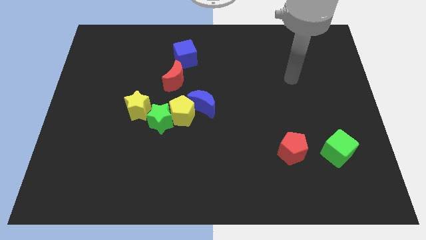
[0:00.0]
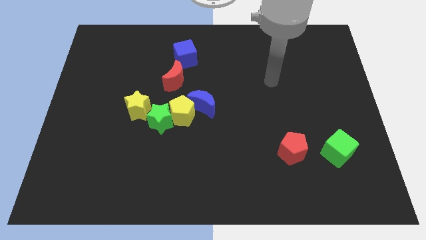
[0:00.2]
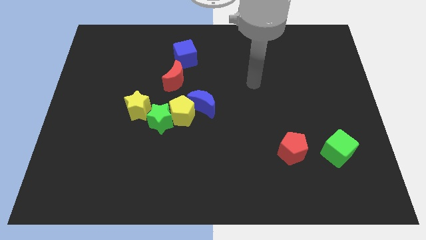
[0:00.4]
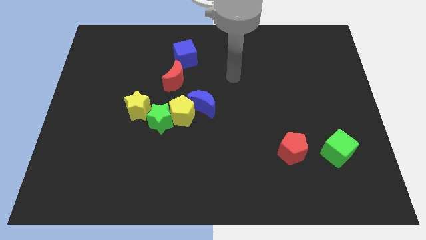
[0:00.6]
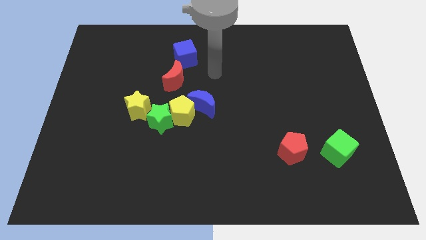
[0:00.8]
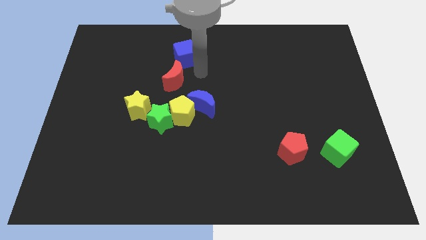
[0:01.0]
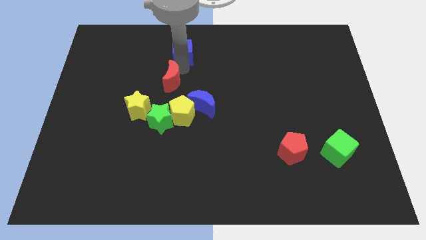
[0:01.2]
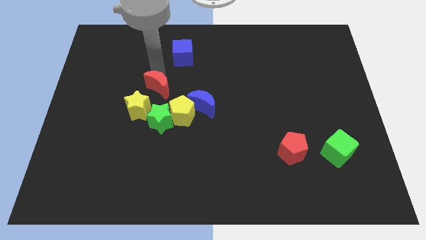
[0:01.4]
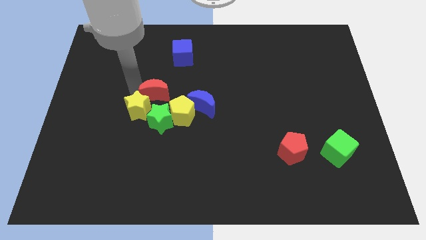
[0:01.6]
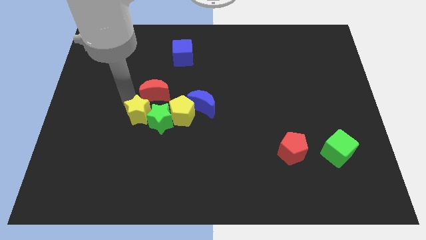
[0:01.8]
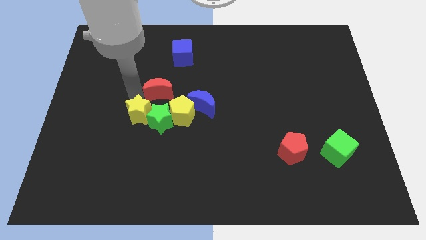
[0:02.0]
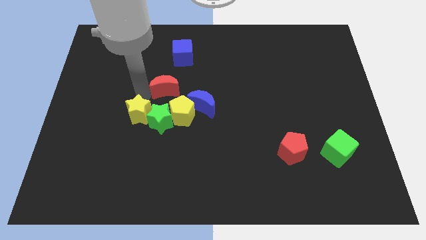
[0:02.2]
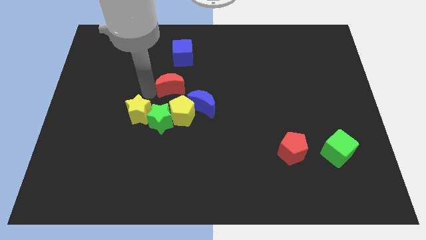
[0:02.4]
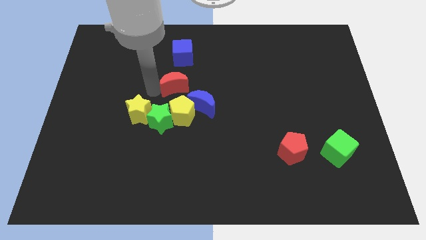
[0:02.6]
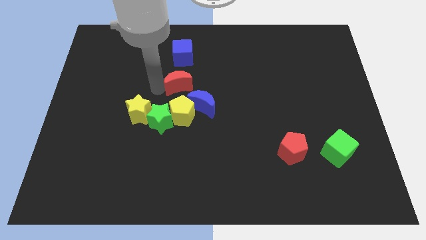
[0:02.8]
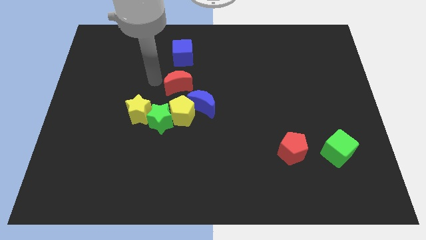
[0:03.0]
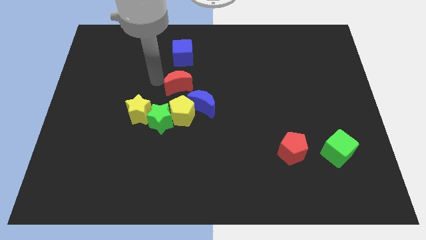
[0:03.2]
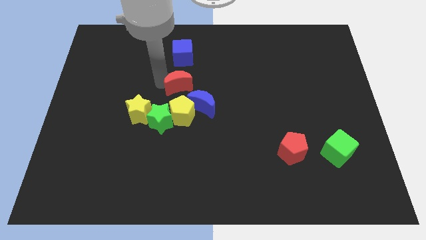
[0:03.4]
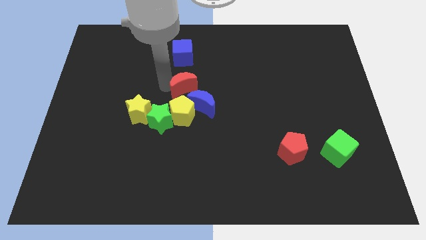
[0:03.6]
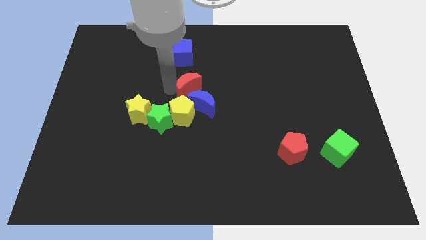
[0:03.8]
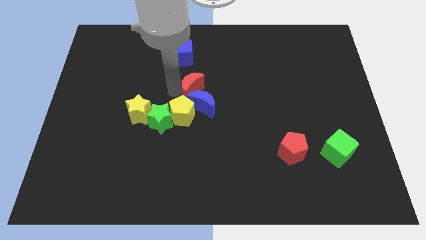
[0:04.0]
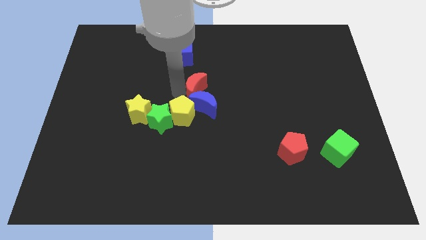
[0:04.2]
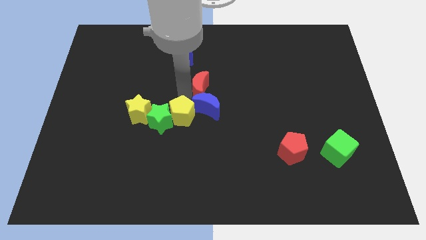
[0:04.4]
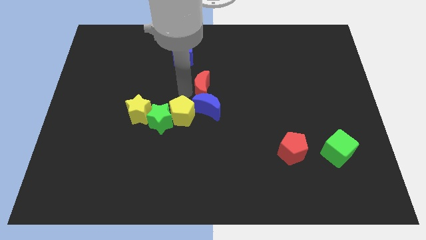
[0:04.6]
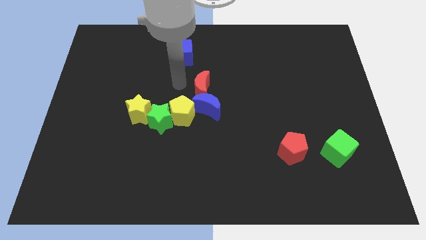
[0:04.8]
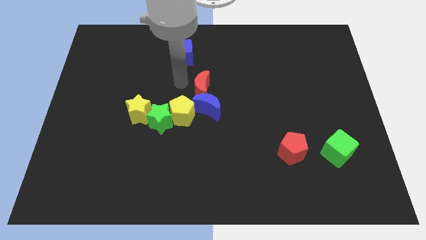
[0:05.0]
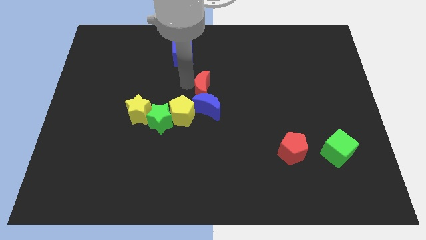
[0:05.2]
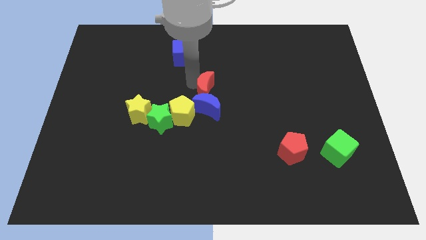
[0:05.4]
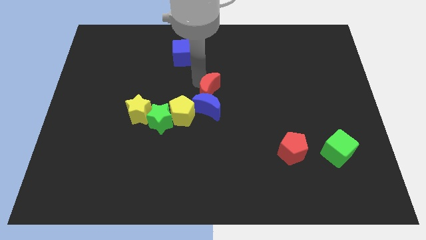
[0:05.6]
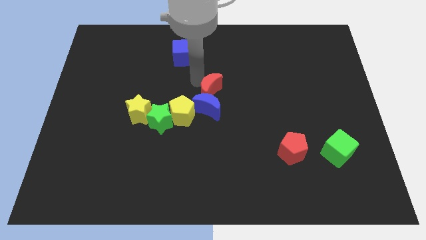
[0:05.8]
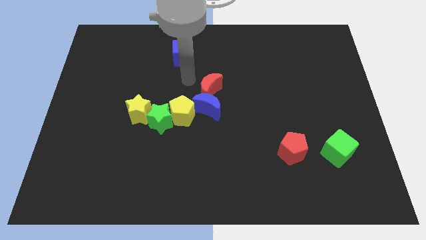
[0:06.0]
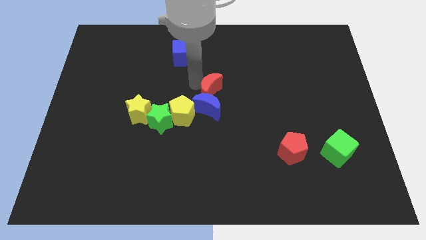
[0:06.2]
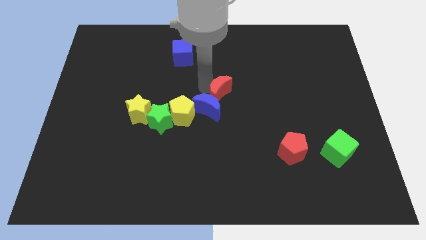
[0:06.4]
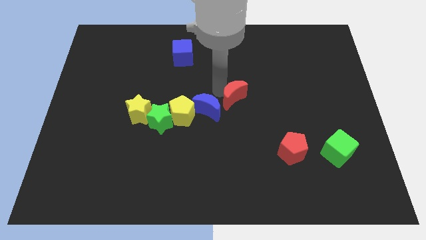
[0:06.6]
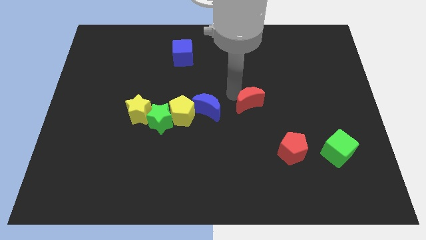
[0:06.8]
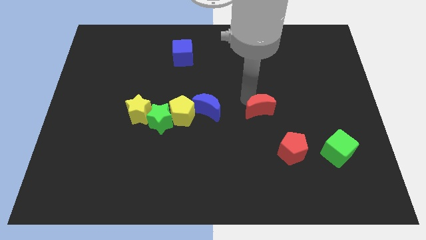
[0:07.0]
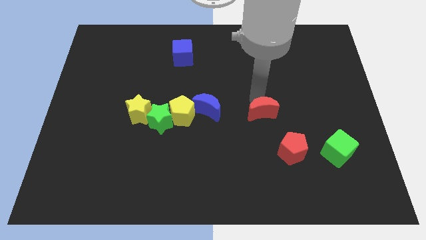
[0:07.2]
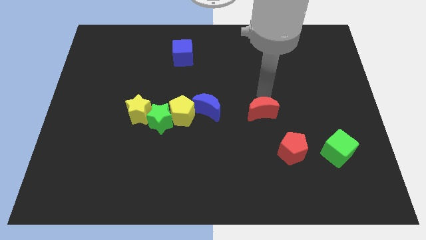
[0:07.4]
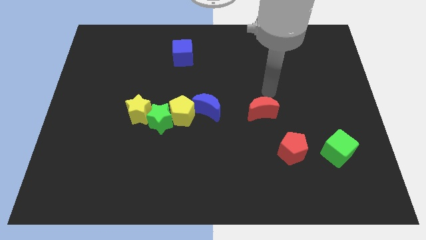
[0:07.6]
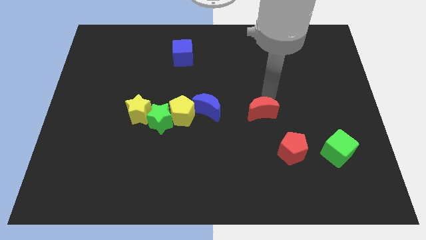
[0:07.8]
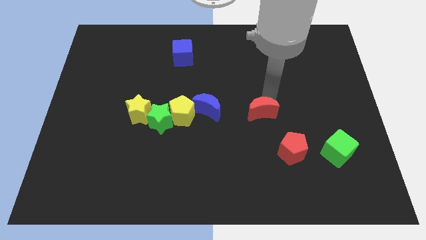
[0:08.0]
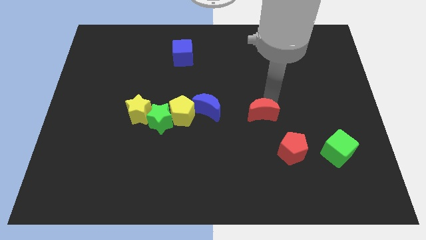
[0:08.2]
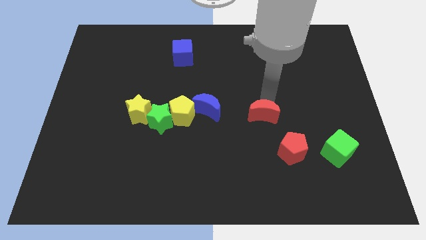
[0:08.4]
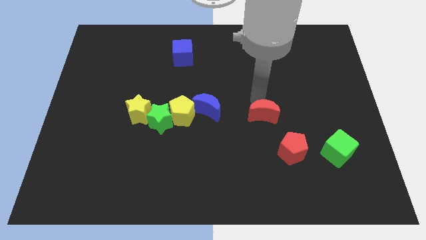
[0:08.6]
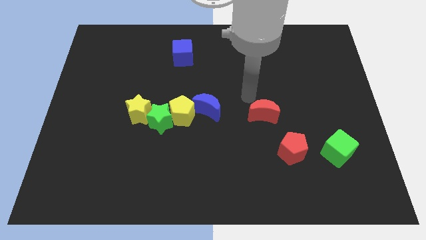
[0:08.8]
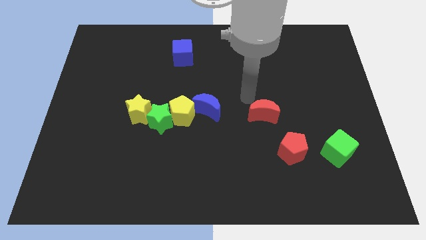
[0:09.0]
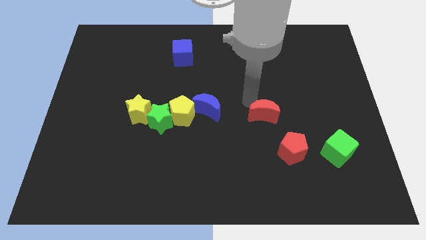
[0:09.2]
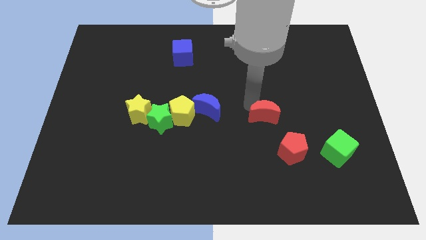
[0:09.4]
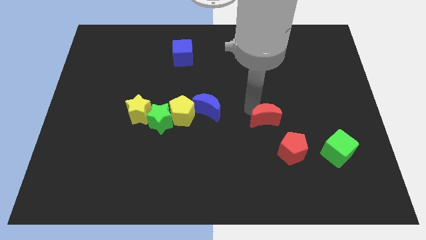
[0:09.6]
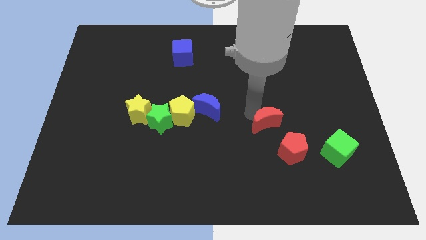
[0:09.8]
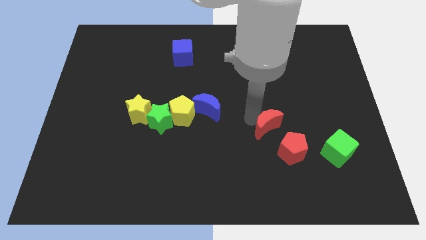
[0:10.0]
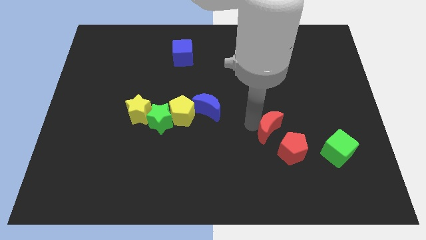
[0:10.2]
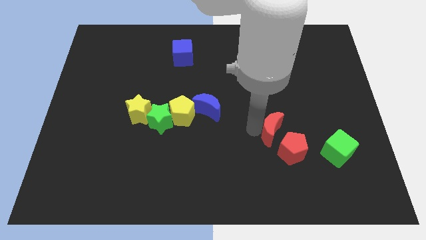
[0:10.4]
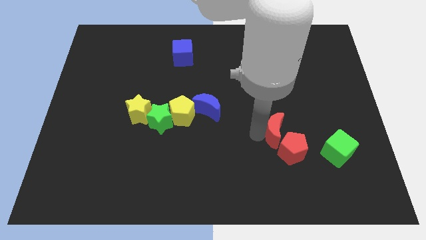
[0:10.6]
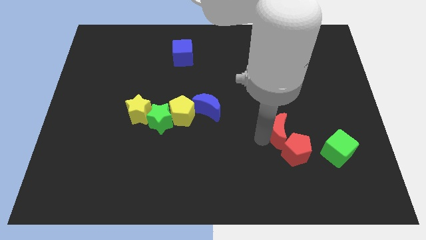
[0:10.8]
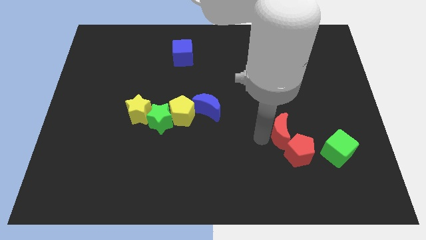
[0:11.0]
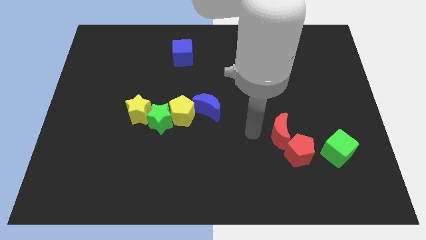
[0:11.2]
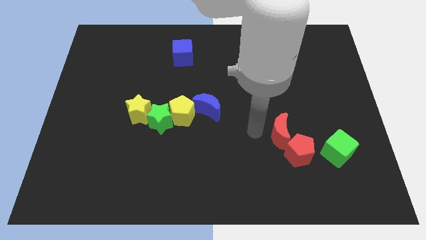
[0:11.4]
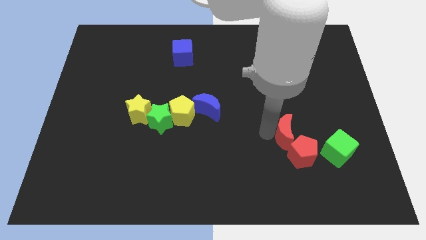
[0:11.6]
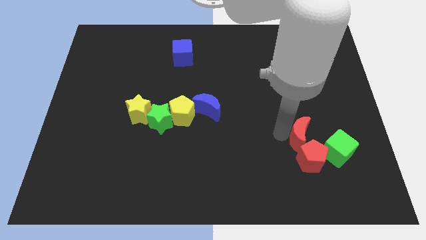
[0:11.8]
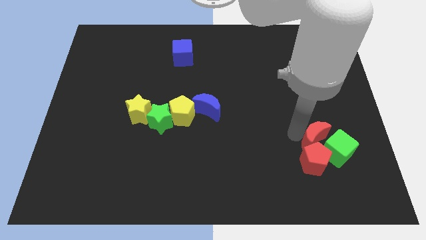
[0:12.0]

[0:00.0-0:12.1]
put the red moon to the green cube
